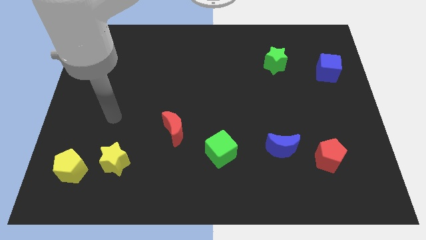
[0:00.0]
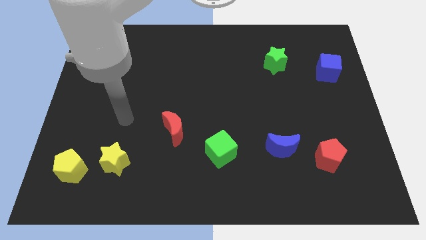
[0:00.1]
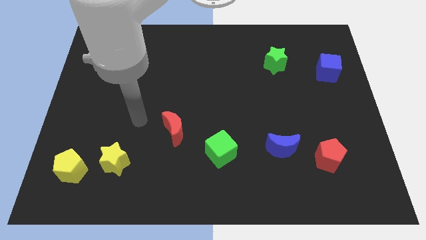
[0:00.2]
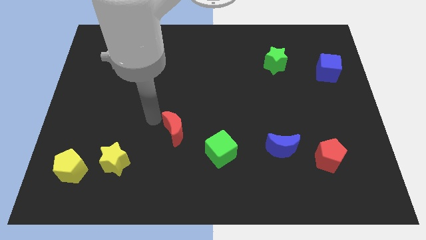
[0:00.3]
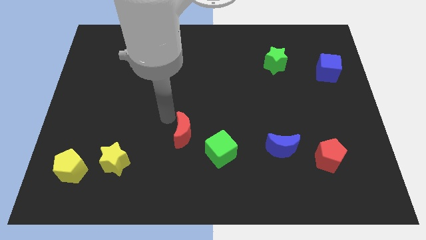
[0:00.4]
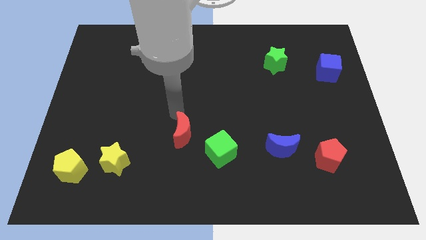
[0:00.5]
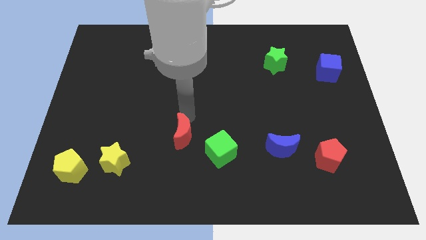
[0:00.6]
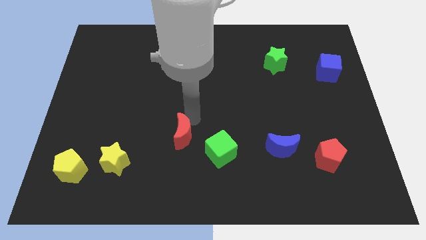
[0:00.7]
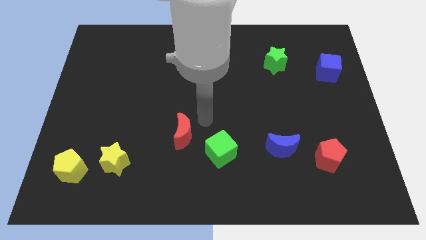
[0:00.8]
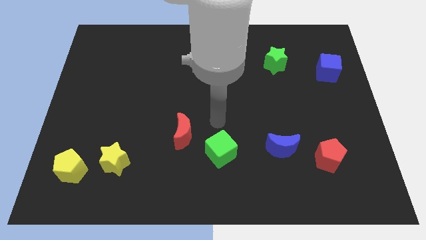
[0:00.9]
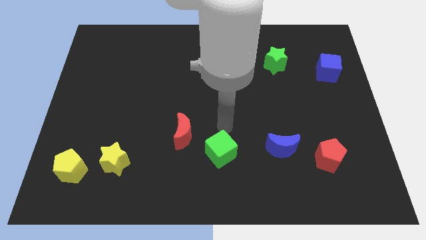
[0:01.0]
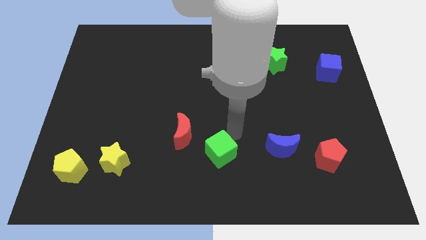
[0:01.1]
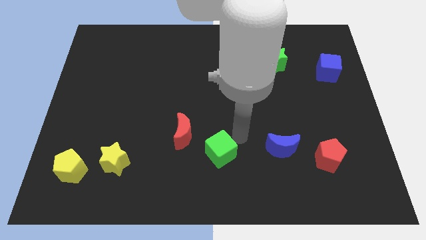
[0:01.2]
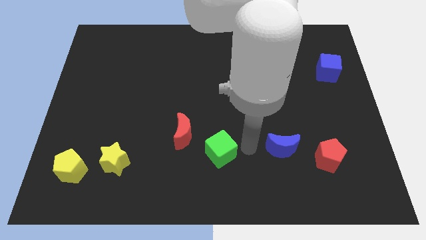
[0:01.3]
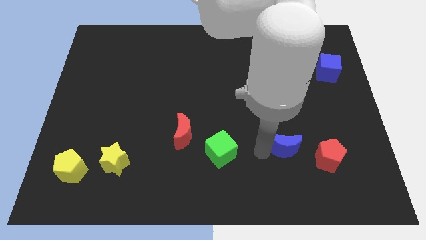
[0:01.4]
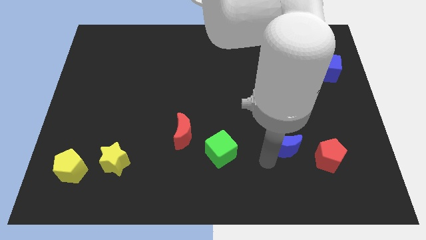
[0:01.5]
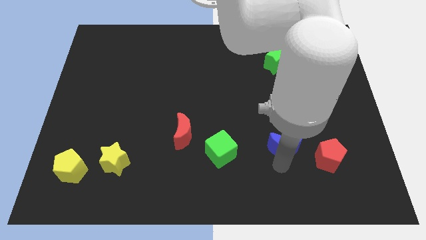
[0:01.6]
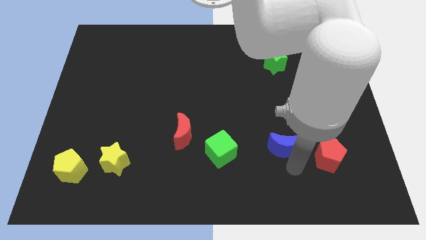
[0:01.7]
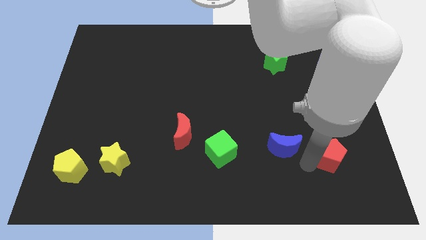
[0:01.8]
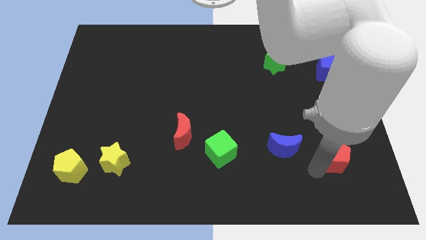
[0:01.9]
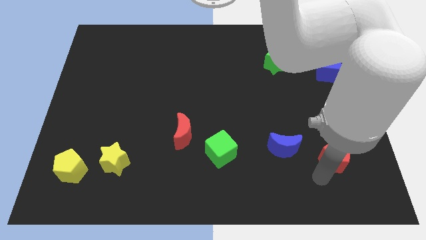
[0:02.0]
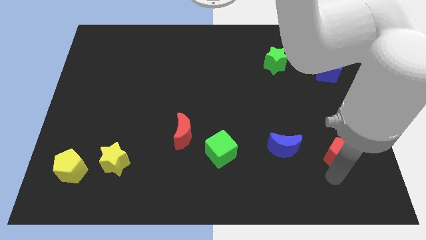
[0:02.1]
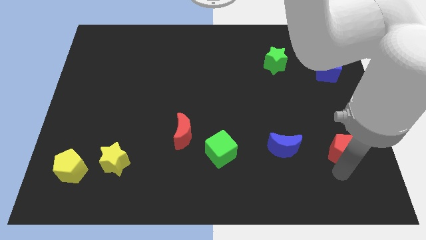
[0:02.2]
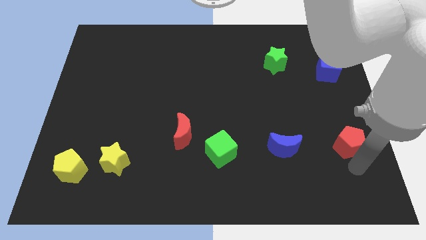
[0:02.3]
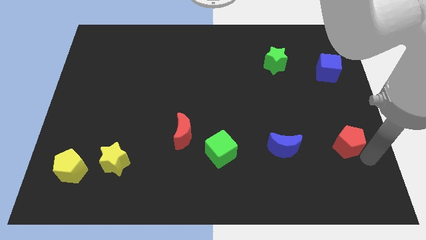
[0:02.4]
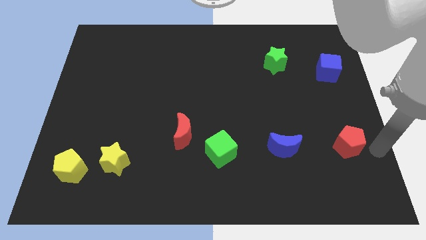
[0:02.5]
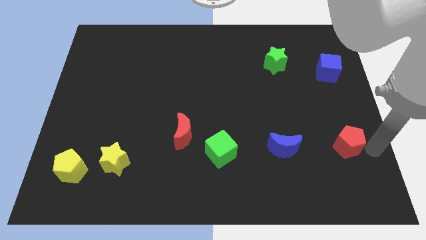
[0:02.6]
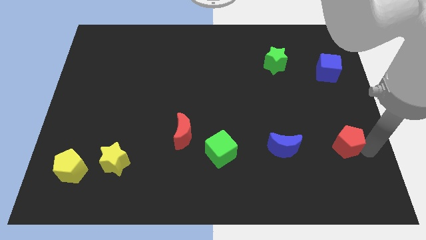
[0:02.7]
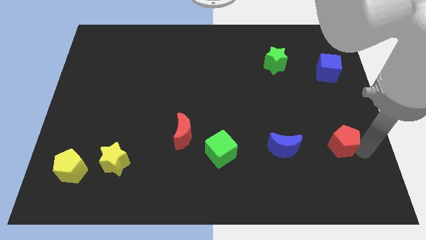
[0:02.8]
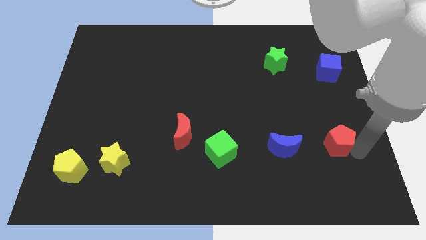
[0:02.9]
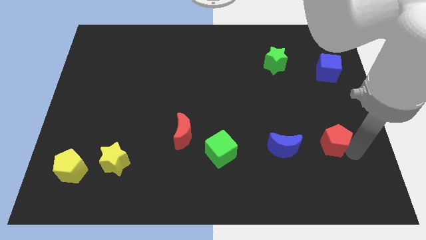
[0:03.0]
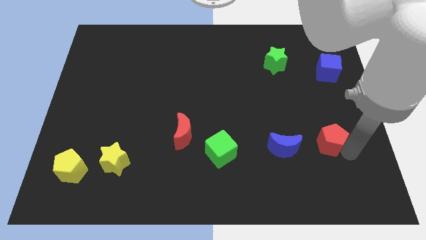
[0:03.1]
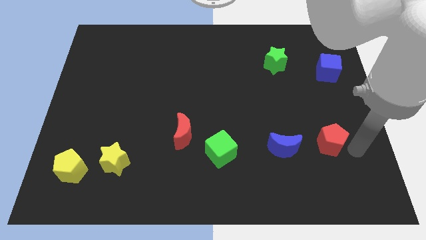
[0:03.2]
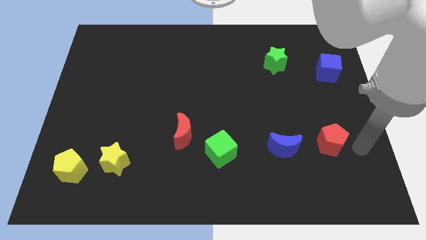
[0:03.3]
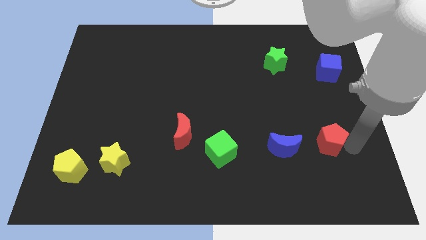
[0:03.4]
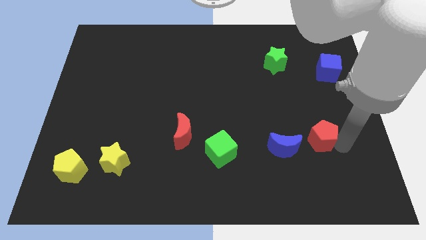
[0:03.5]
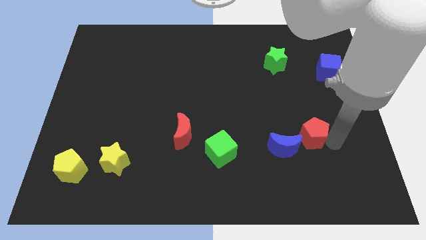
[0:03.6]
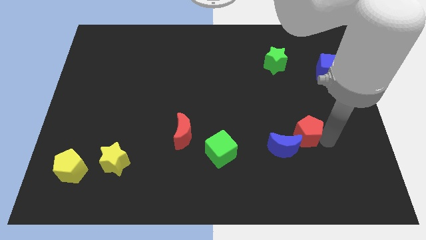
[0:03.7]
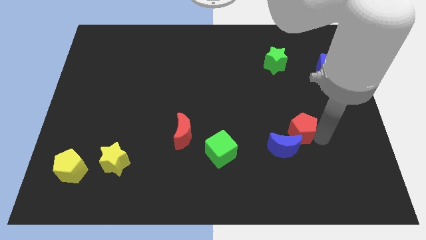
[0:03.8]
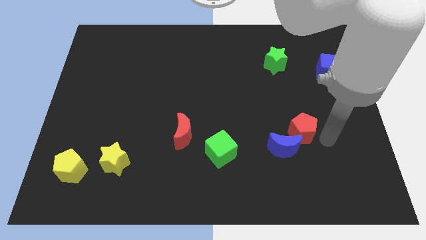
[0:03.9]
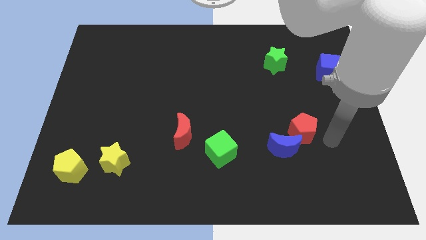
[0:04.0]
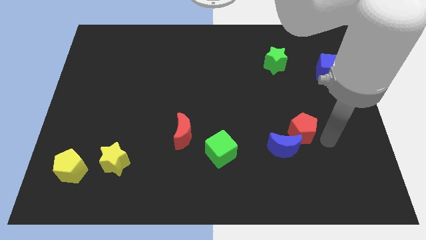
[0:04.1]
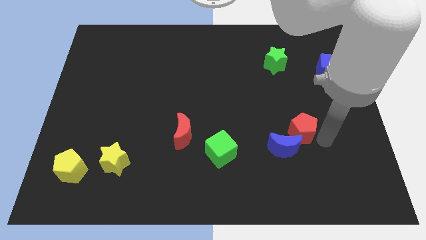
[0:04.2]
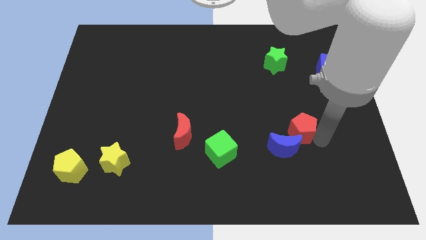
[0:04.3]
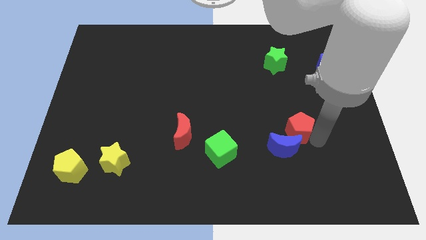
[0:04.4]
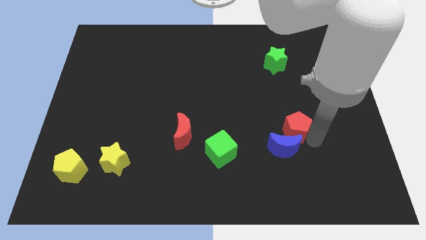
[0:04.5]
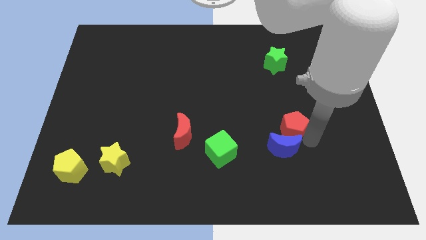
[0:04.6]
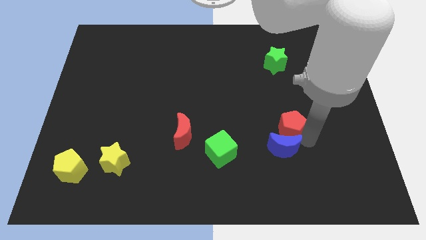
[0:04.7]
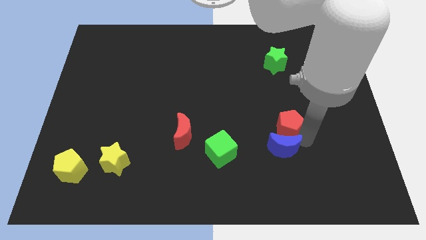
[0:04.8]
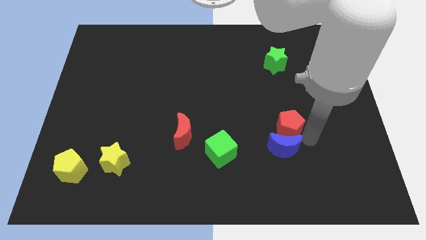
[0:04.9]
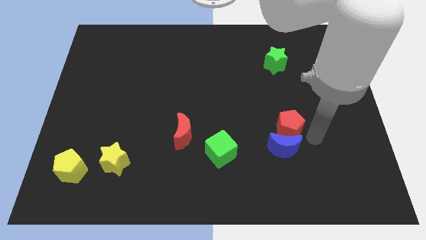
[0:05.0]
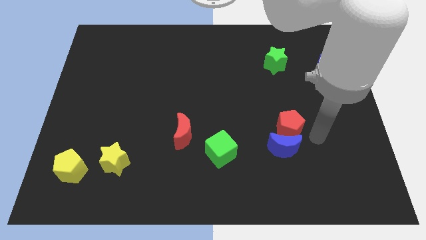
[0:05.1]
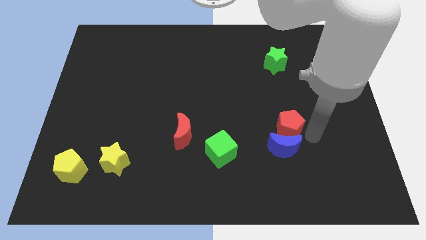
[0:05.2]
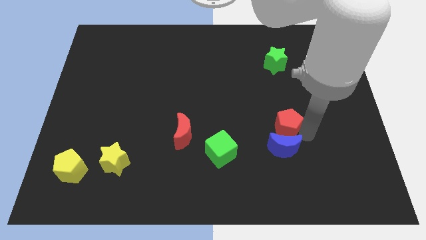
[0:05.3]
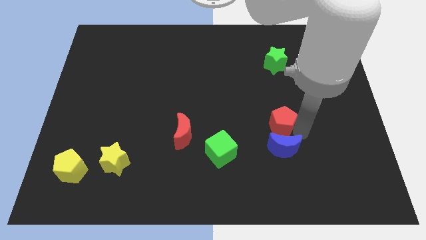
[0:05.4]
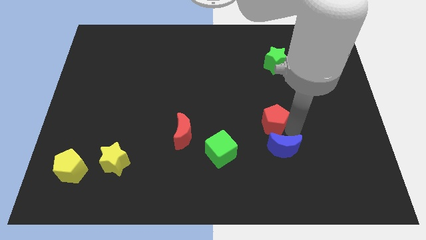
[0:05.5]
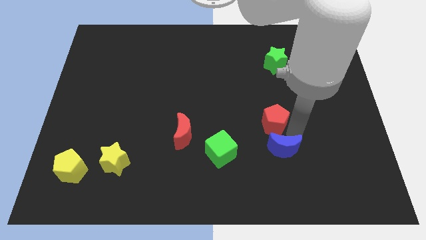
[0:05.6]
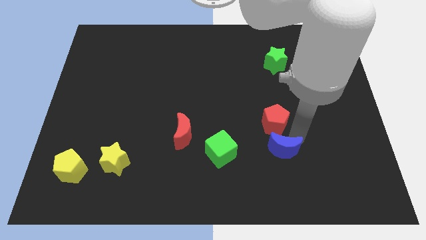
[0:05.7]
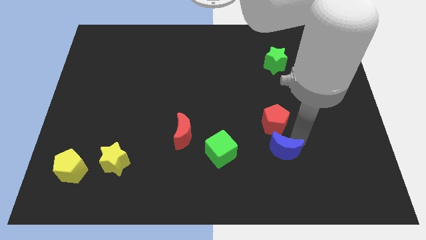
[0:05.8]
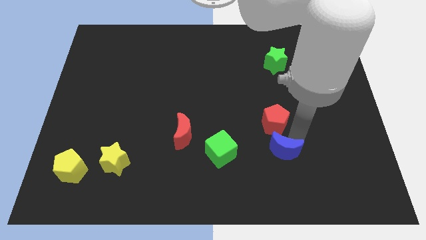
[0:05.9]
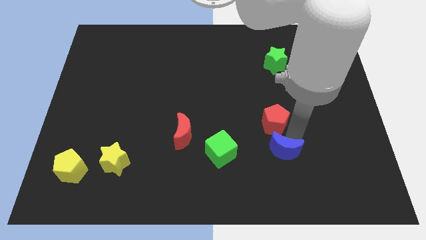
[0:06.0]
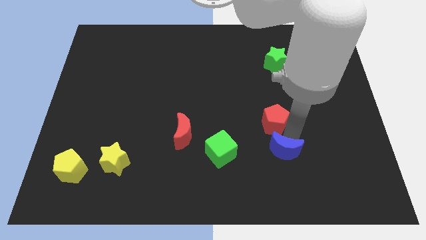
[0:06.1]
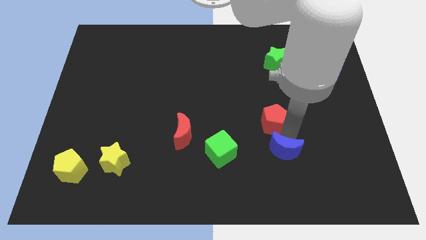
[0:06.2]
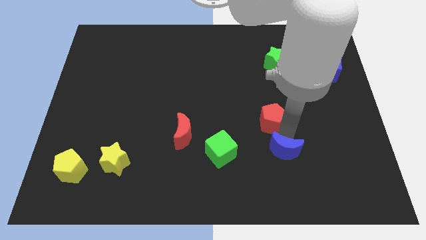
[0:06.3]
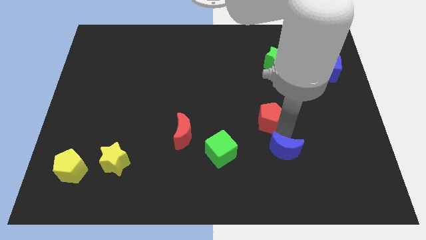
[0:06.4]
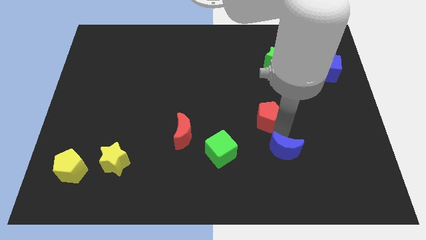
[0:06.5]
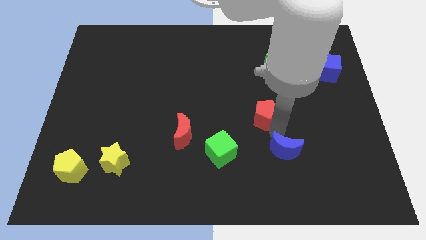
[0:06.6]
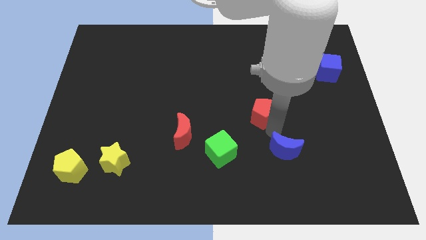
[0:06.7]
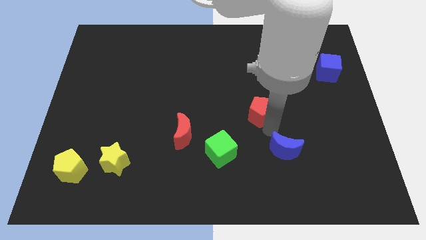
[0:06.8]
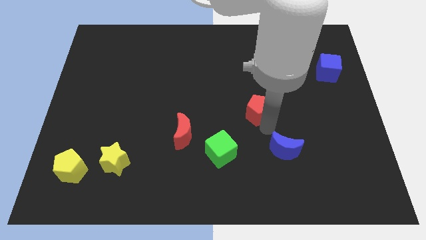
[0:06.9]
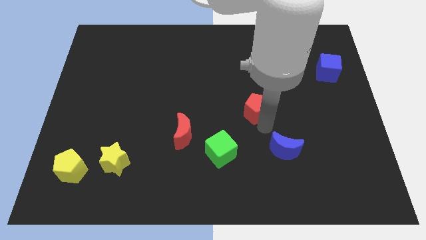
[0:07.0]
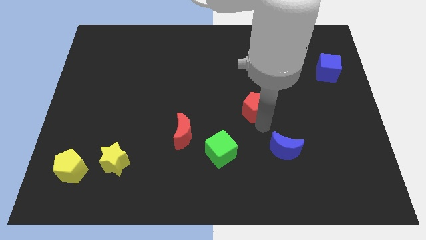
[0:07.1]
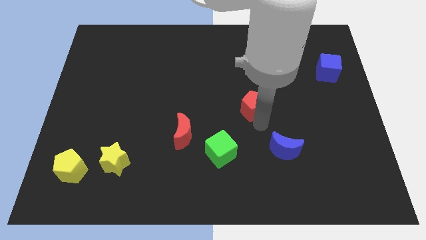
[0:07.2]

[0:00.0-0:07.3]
slide the red pentagon upwards and to the left

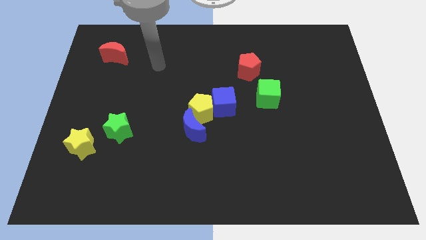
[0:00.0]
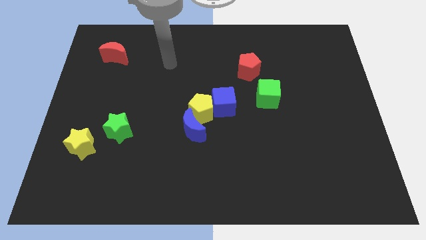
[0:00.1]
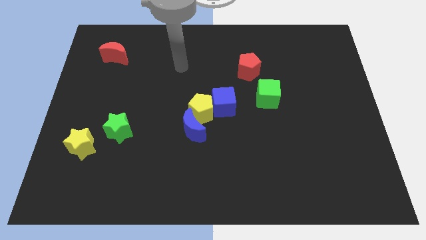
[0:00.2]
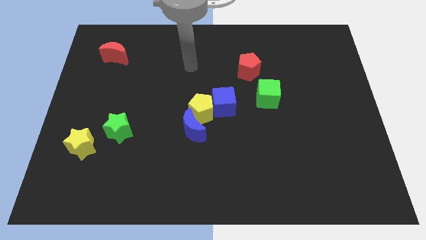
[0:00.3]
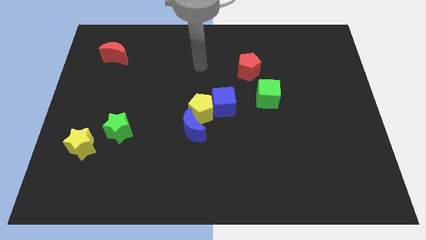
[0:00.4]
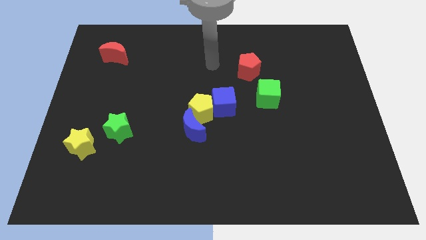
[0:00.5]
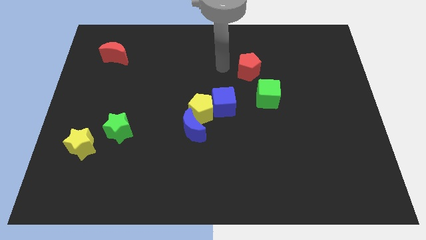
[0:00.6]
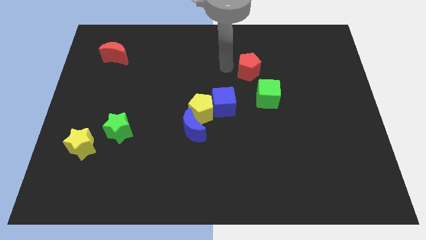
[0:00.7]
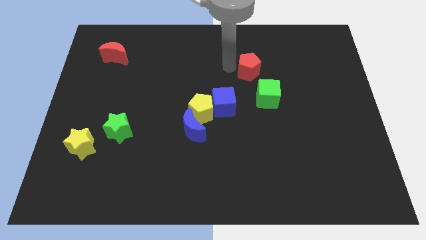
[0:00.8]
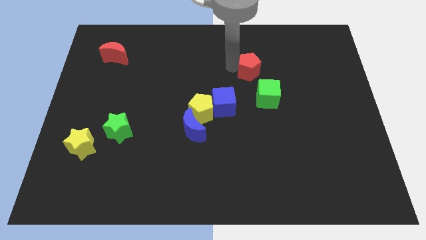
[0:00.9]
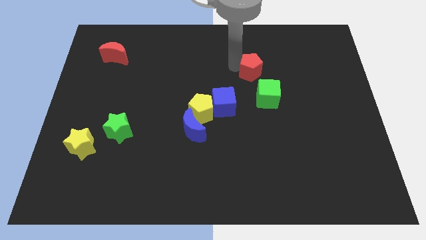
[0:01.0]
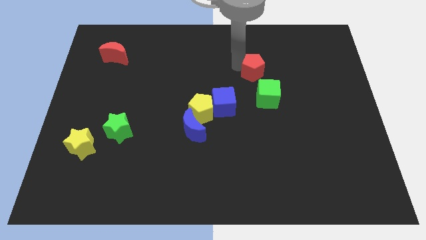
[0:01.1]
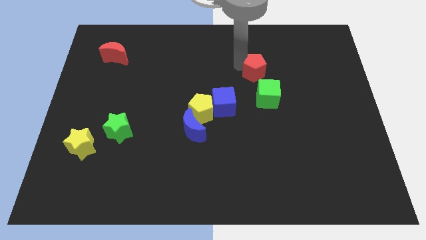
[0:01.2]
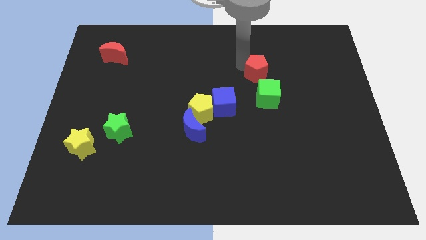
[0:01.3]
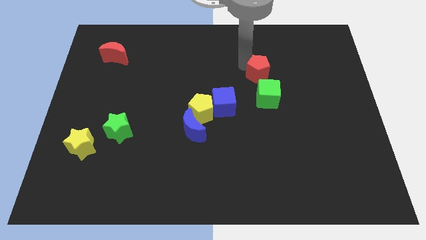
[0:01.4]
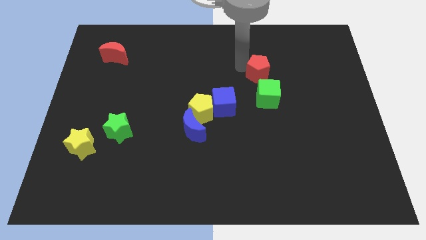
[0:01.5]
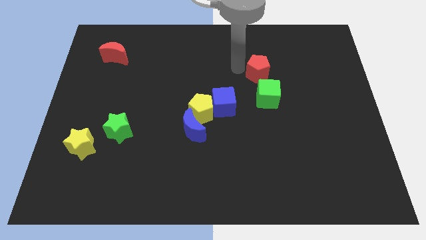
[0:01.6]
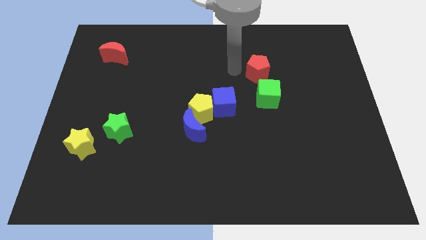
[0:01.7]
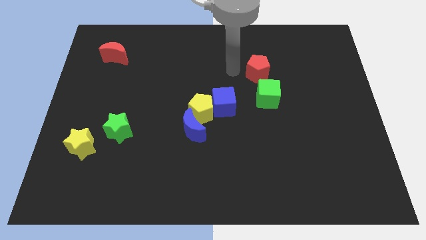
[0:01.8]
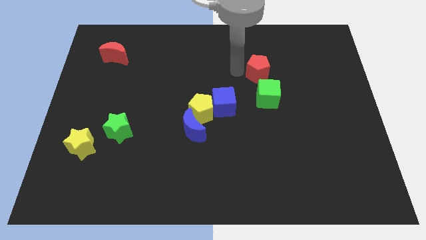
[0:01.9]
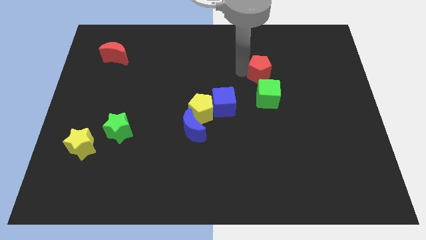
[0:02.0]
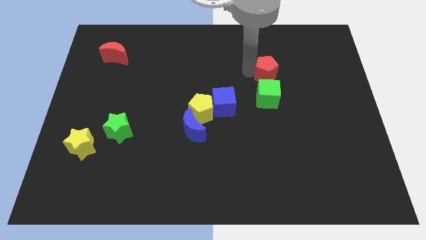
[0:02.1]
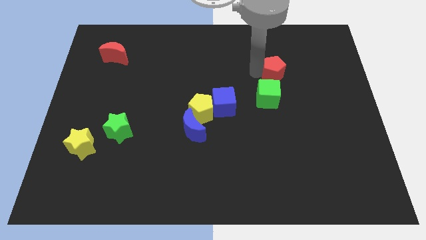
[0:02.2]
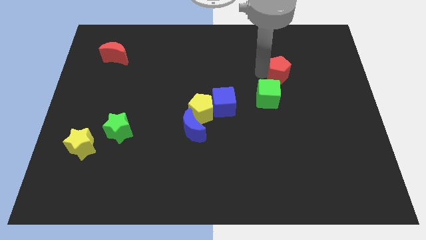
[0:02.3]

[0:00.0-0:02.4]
slightly move the red pentagon to the right
